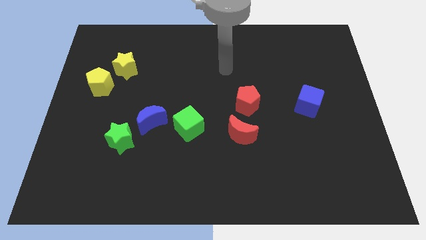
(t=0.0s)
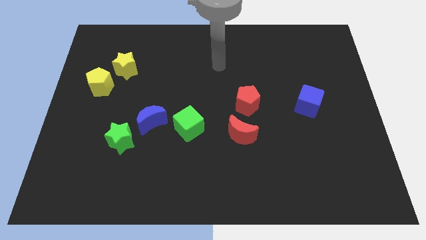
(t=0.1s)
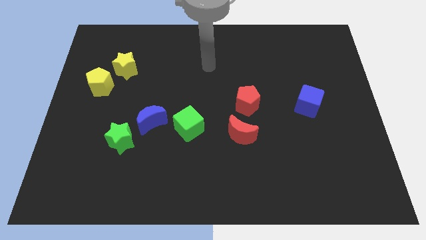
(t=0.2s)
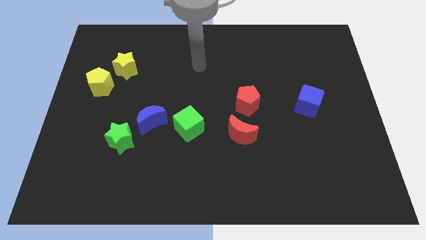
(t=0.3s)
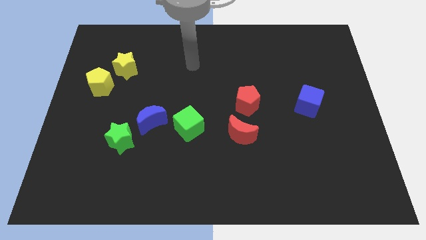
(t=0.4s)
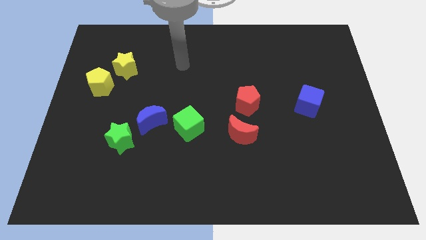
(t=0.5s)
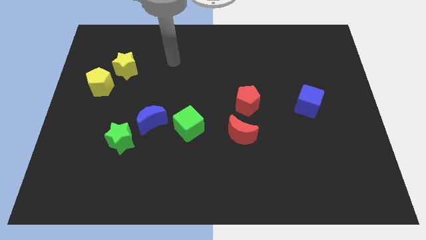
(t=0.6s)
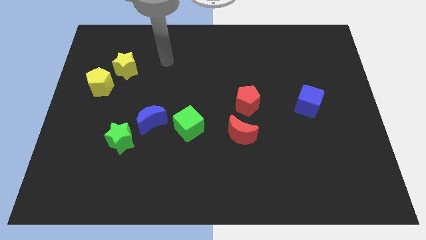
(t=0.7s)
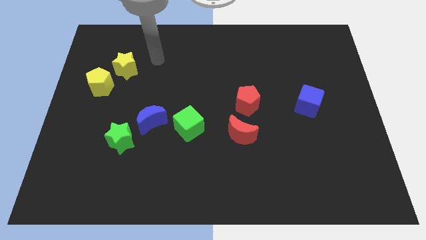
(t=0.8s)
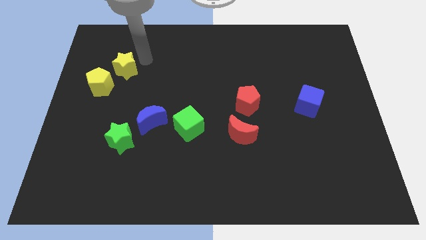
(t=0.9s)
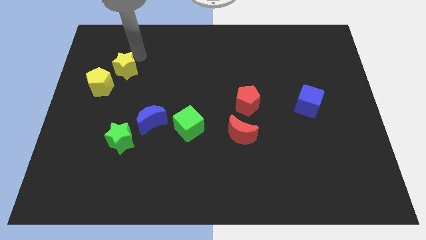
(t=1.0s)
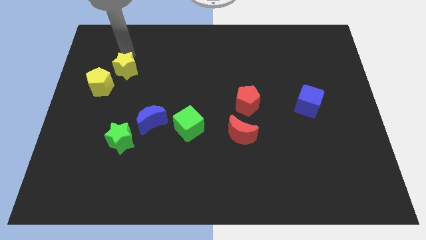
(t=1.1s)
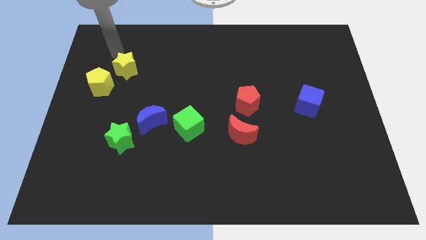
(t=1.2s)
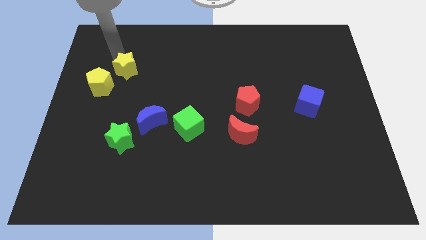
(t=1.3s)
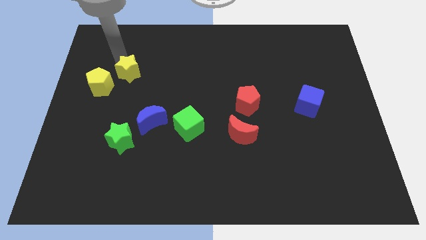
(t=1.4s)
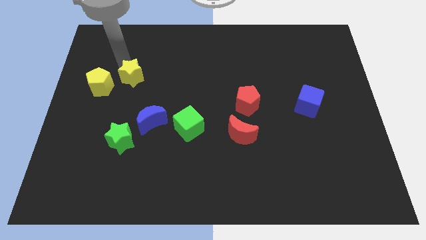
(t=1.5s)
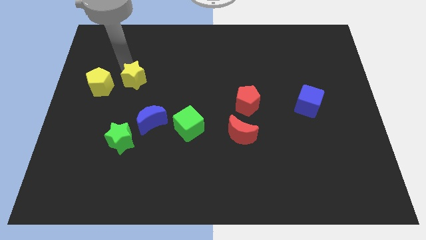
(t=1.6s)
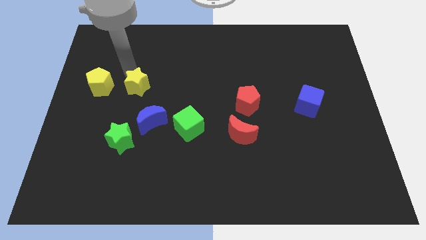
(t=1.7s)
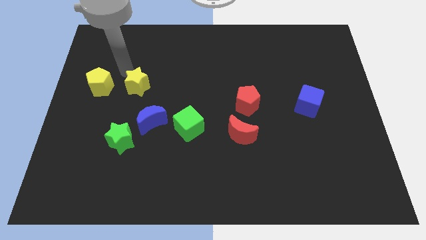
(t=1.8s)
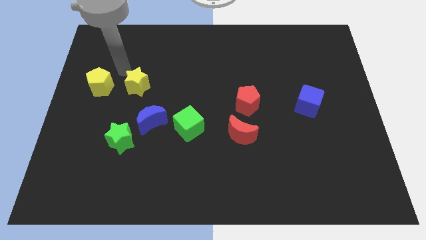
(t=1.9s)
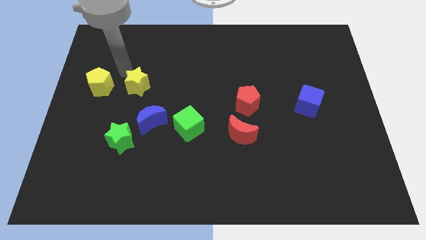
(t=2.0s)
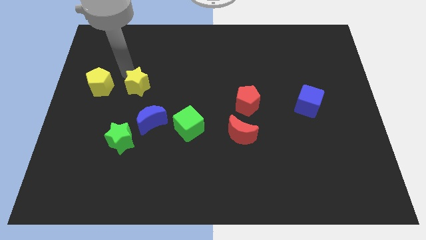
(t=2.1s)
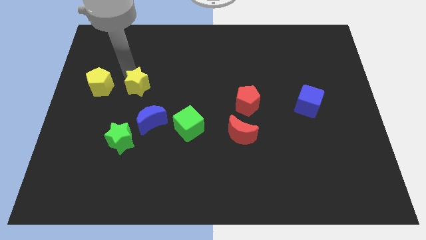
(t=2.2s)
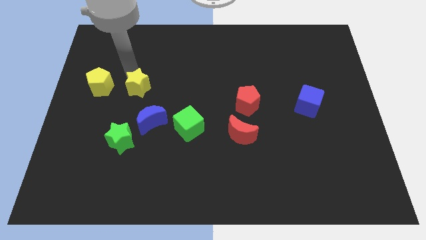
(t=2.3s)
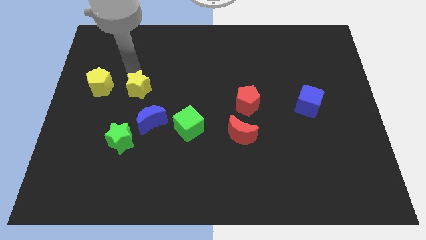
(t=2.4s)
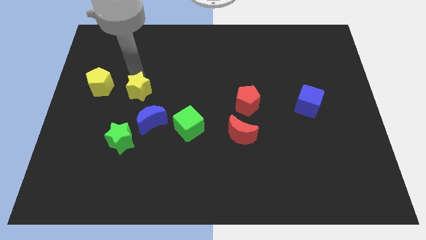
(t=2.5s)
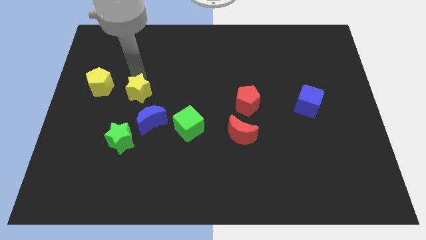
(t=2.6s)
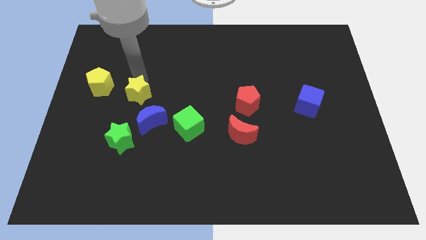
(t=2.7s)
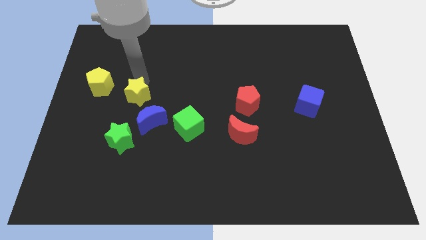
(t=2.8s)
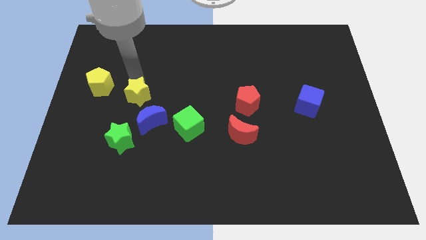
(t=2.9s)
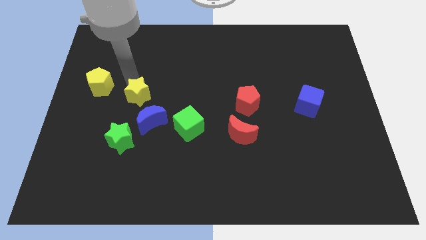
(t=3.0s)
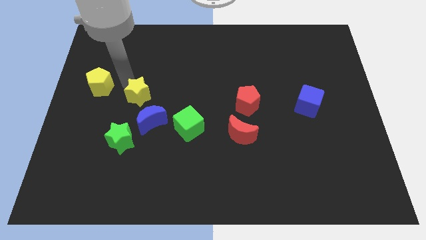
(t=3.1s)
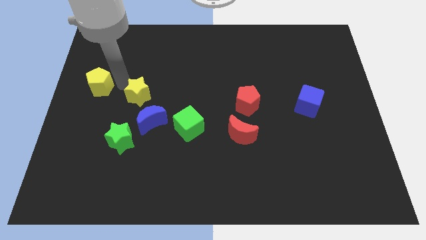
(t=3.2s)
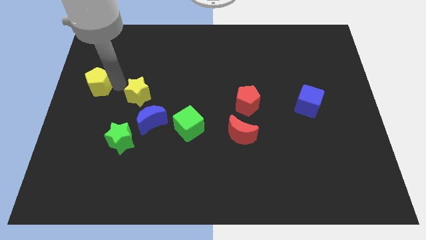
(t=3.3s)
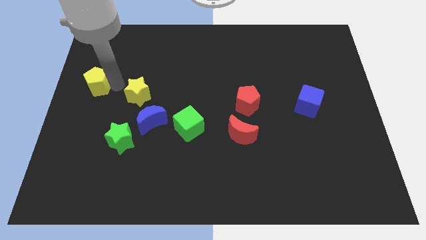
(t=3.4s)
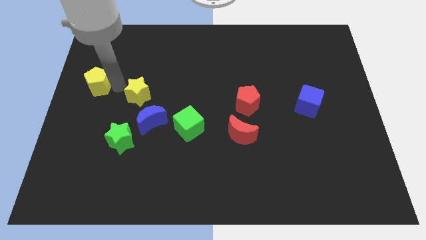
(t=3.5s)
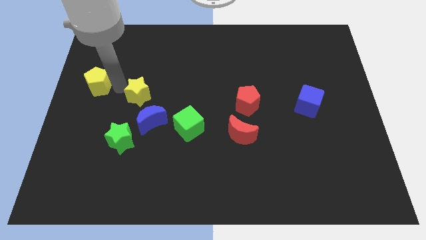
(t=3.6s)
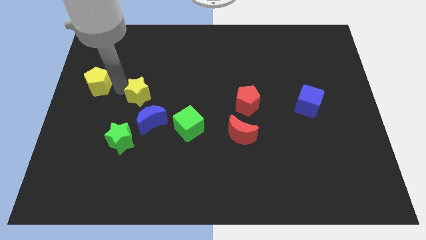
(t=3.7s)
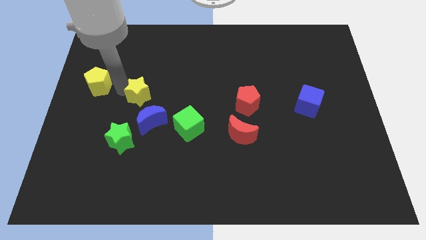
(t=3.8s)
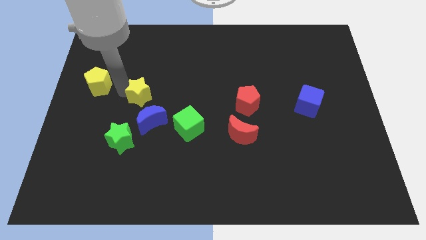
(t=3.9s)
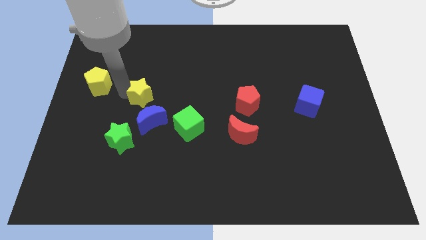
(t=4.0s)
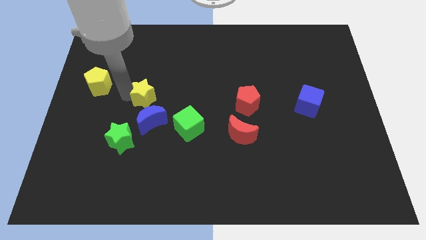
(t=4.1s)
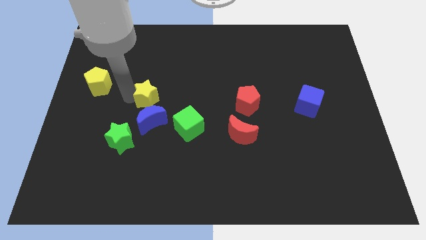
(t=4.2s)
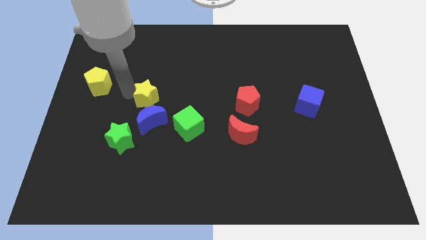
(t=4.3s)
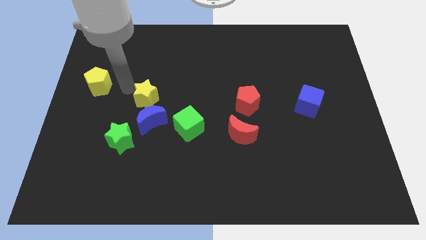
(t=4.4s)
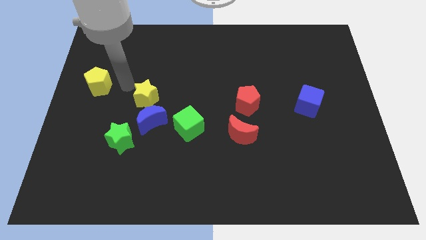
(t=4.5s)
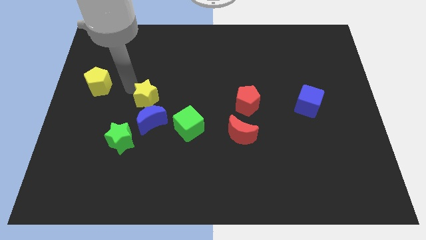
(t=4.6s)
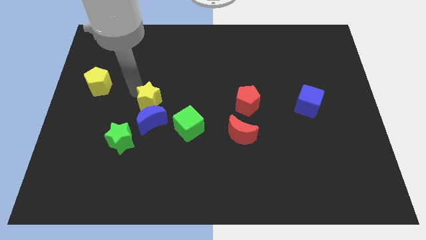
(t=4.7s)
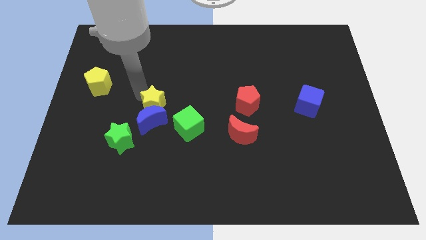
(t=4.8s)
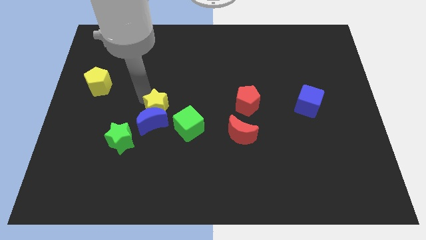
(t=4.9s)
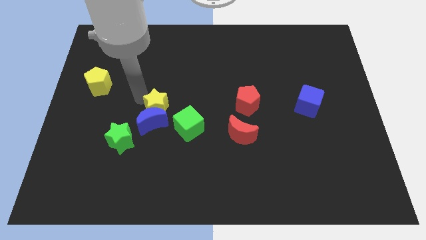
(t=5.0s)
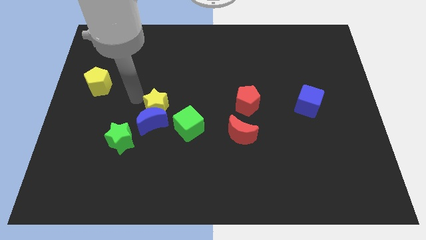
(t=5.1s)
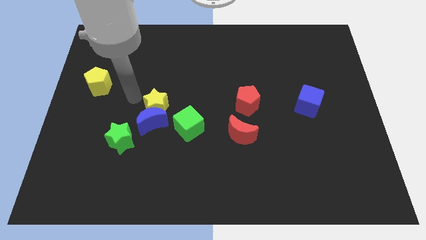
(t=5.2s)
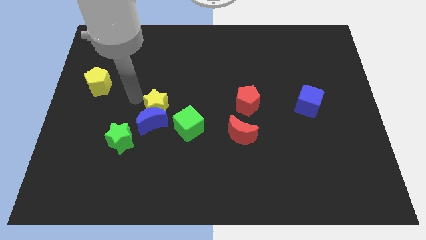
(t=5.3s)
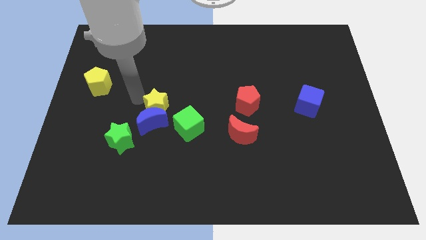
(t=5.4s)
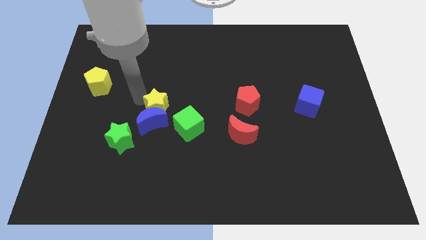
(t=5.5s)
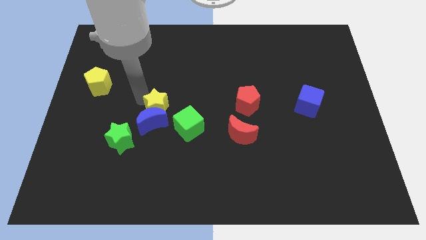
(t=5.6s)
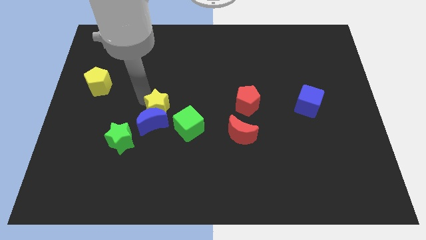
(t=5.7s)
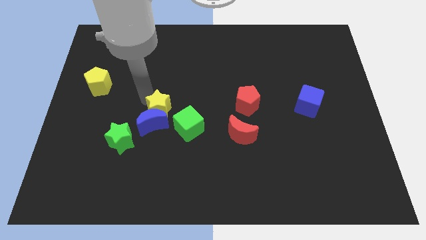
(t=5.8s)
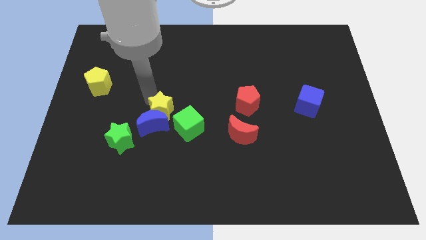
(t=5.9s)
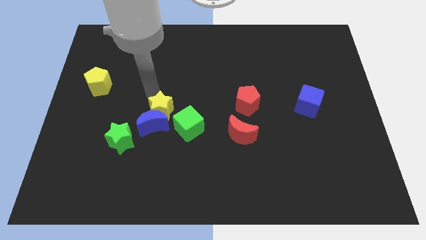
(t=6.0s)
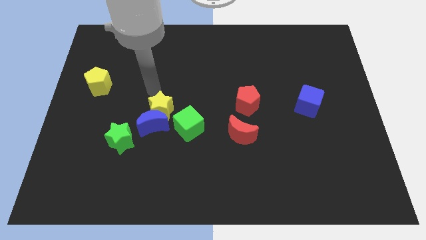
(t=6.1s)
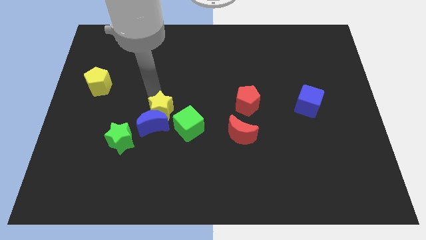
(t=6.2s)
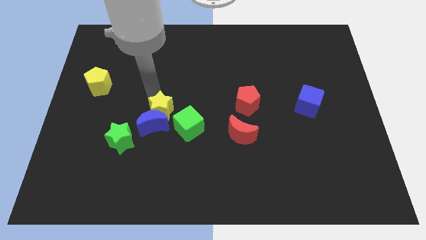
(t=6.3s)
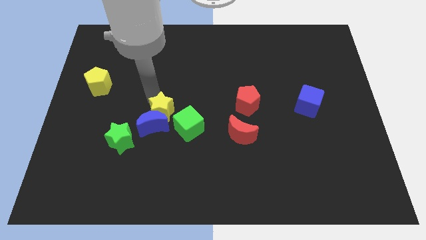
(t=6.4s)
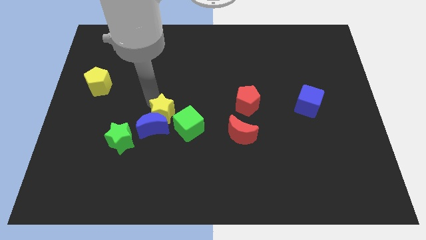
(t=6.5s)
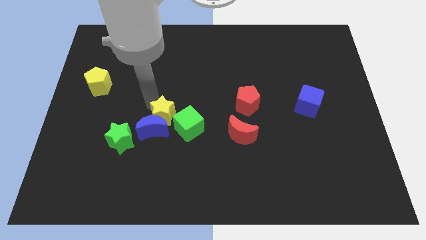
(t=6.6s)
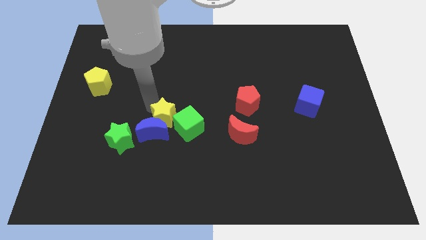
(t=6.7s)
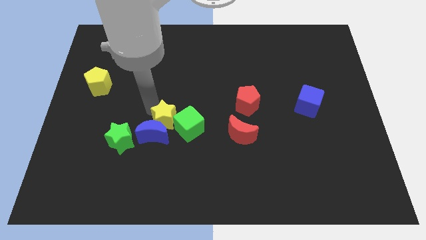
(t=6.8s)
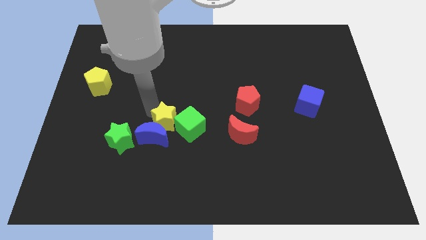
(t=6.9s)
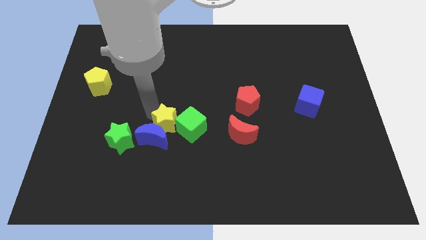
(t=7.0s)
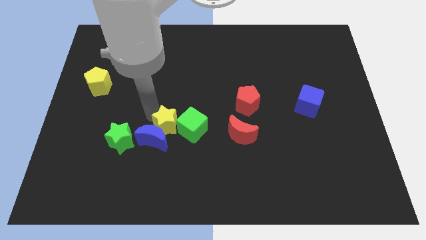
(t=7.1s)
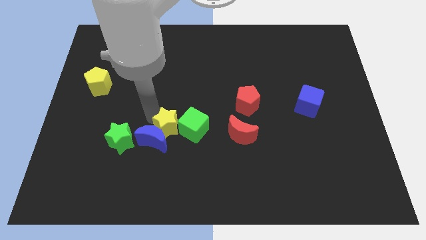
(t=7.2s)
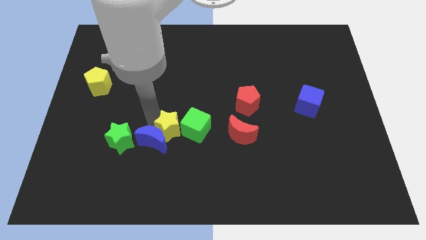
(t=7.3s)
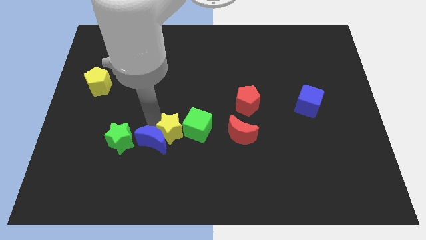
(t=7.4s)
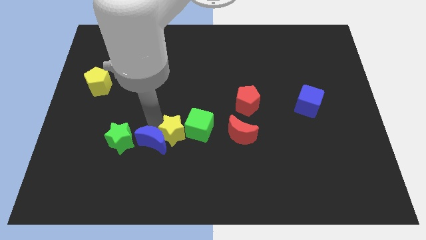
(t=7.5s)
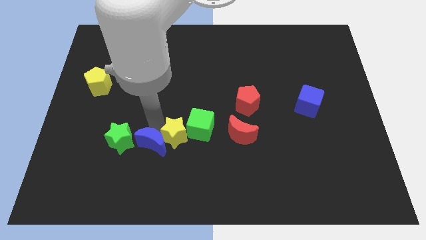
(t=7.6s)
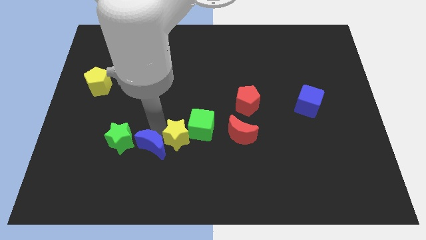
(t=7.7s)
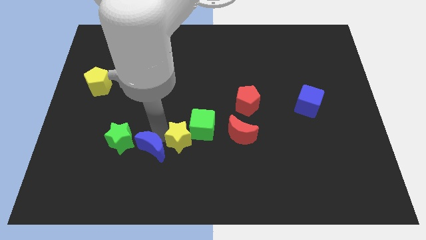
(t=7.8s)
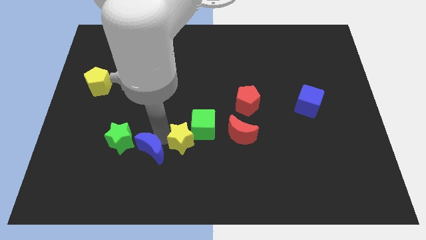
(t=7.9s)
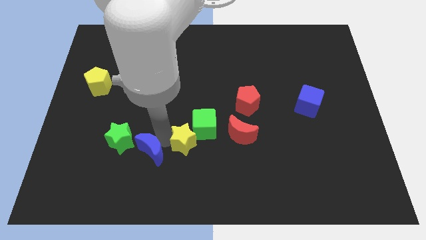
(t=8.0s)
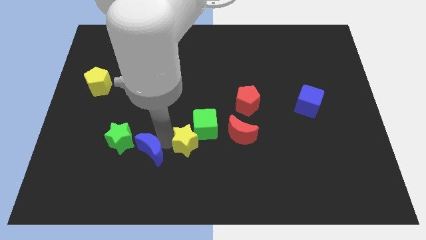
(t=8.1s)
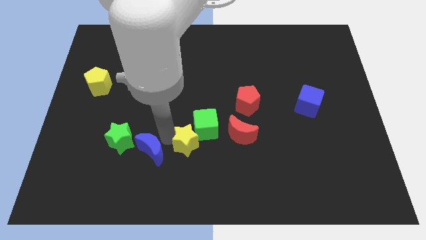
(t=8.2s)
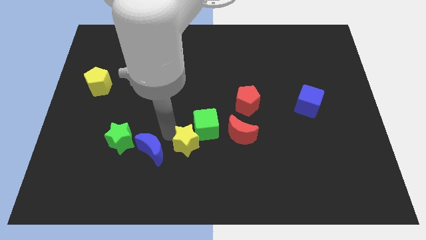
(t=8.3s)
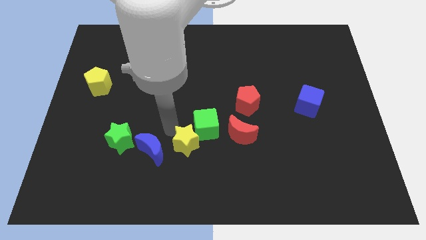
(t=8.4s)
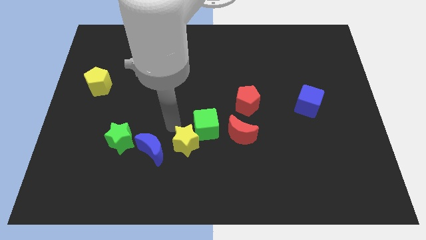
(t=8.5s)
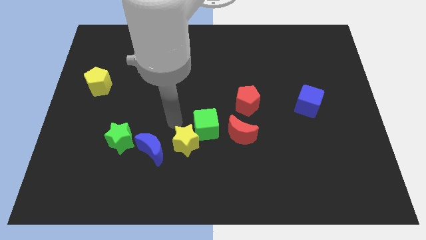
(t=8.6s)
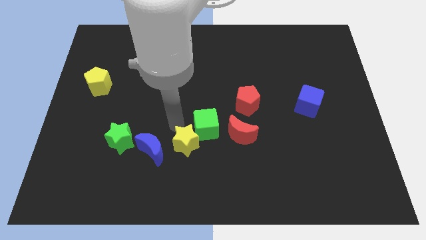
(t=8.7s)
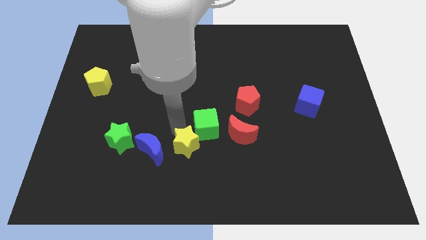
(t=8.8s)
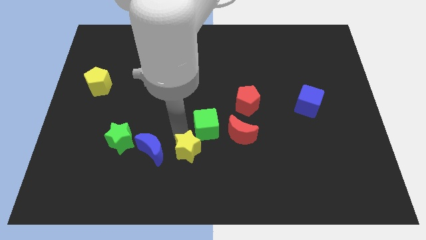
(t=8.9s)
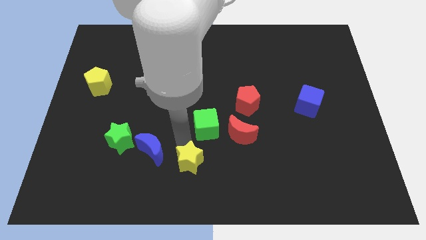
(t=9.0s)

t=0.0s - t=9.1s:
move the yellow star to the bottom
